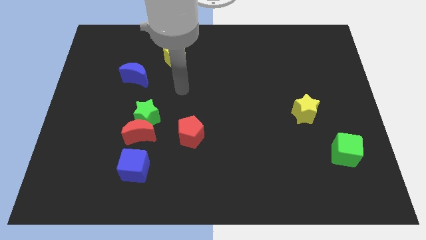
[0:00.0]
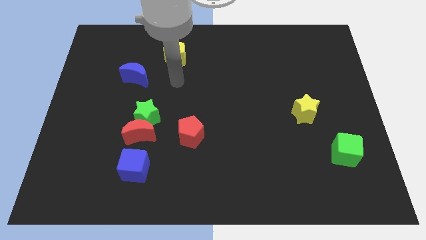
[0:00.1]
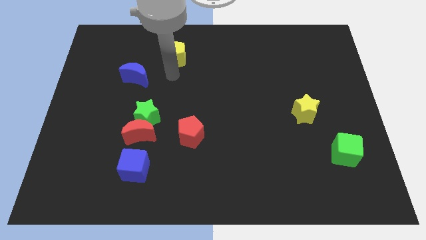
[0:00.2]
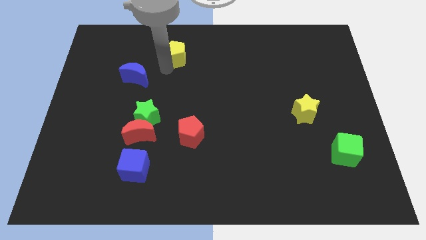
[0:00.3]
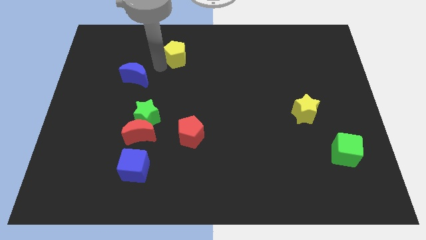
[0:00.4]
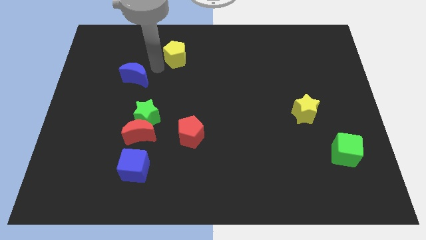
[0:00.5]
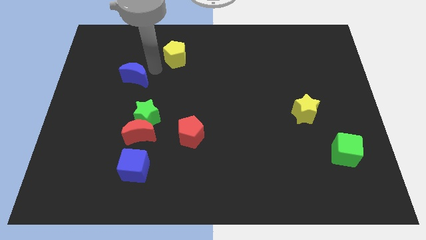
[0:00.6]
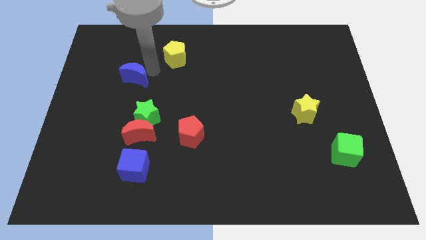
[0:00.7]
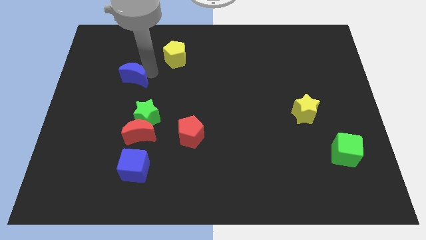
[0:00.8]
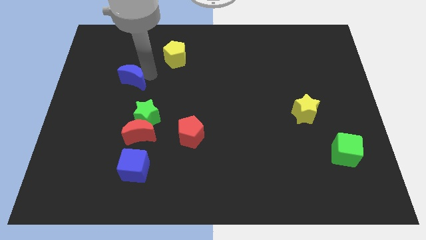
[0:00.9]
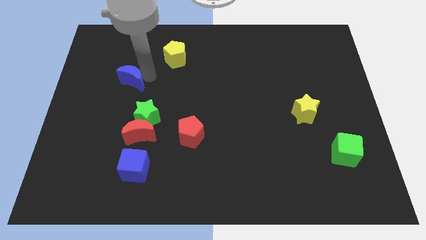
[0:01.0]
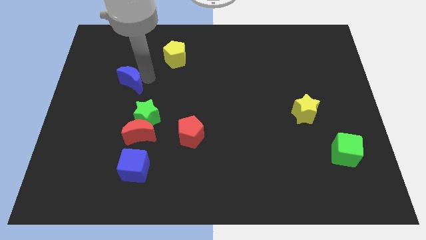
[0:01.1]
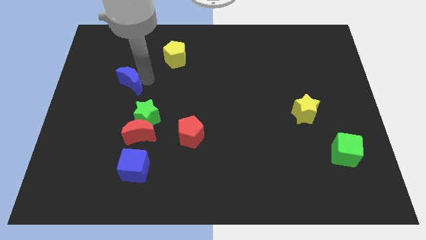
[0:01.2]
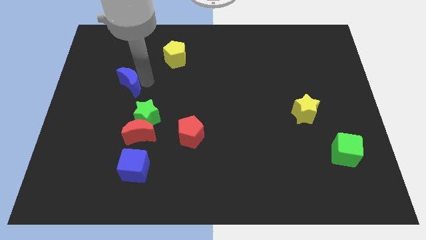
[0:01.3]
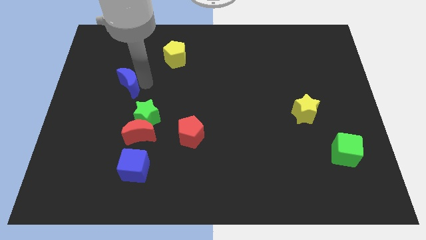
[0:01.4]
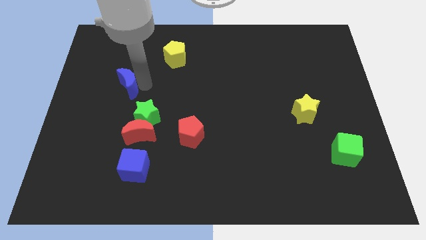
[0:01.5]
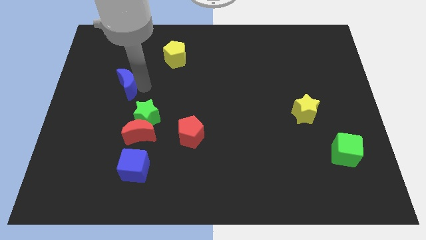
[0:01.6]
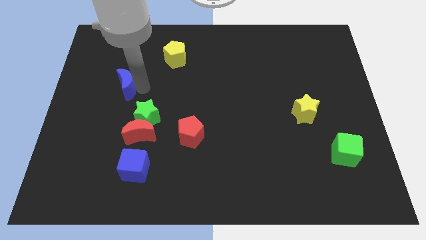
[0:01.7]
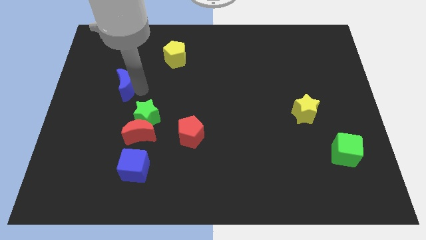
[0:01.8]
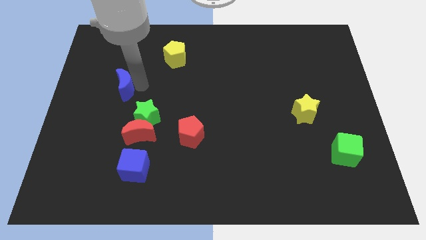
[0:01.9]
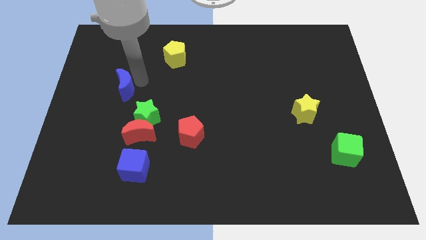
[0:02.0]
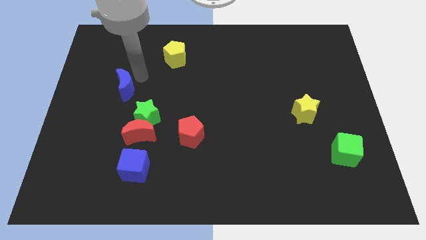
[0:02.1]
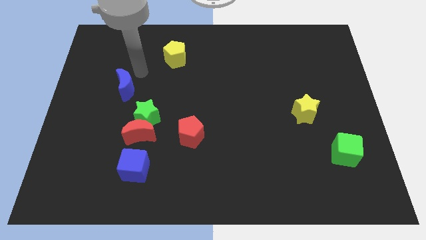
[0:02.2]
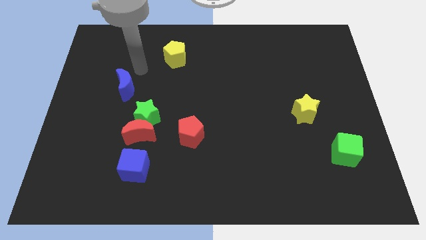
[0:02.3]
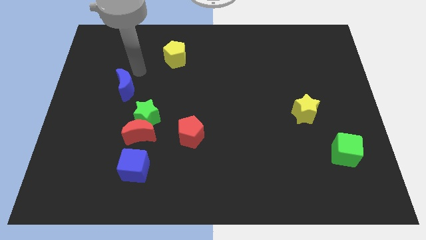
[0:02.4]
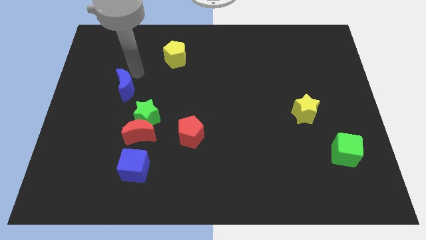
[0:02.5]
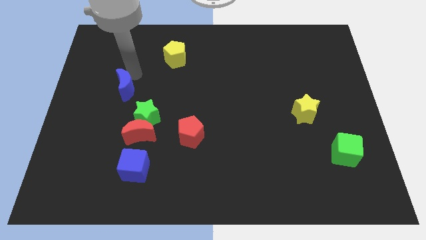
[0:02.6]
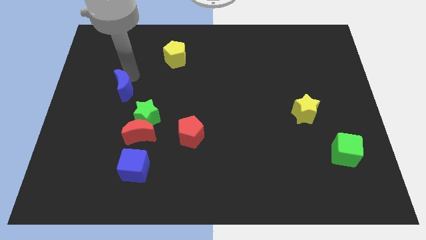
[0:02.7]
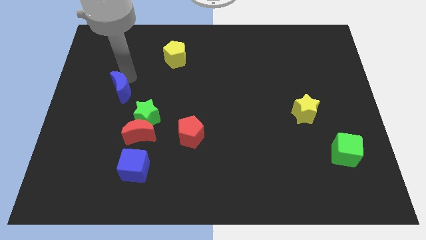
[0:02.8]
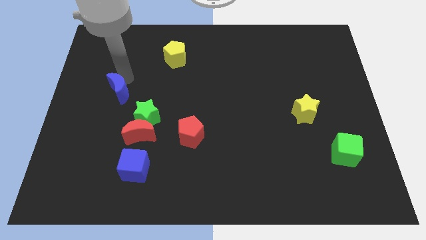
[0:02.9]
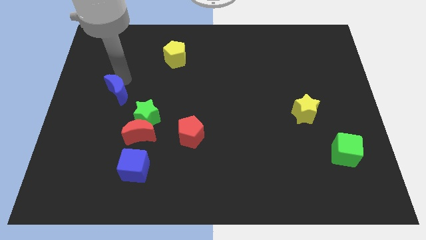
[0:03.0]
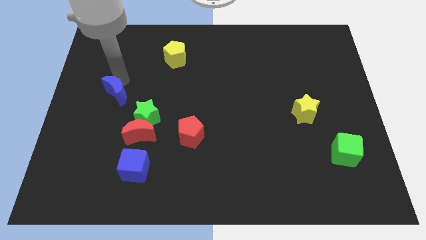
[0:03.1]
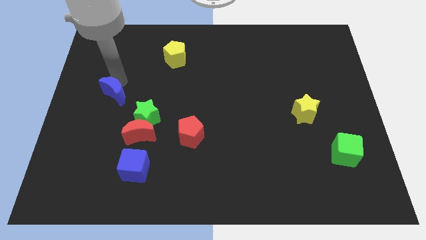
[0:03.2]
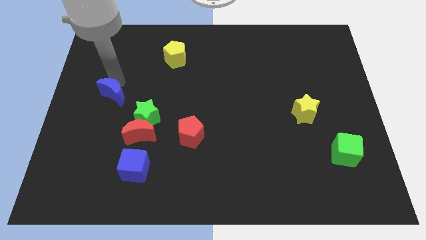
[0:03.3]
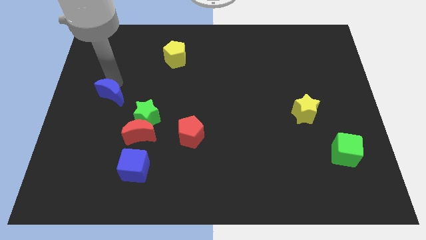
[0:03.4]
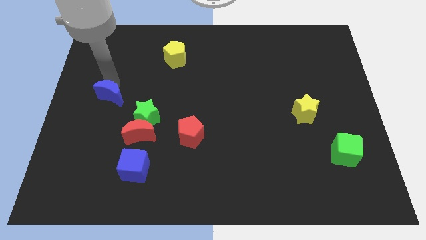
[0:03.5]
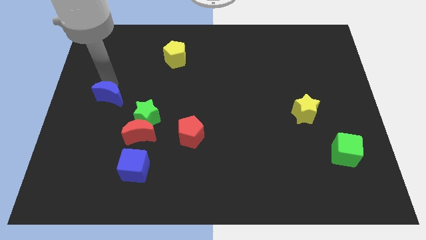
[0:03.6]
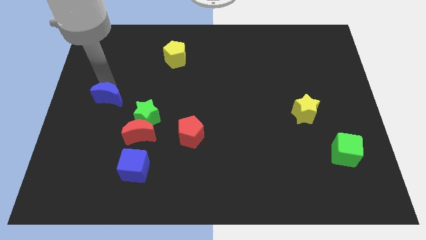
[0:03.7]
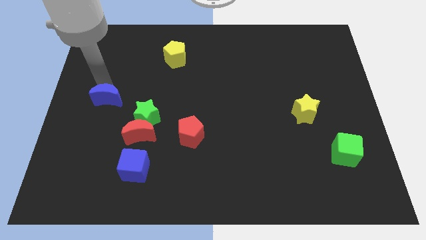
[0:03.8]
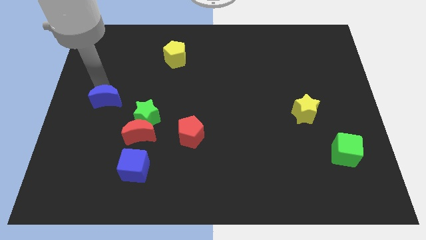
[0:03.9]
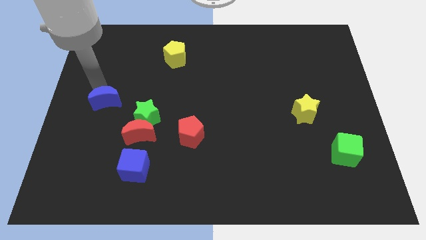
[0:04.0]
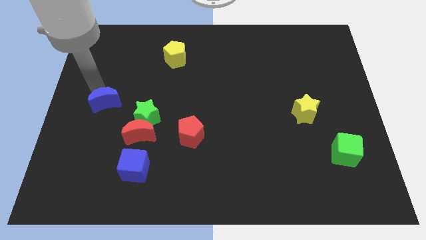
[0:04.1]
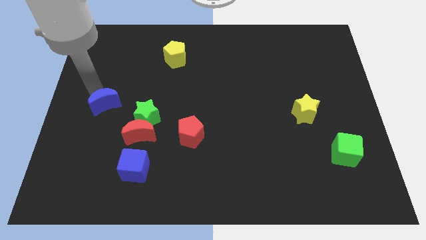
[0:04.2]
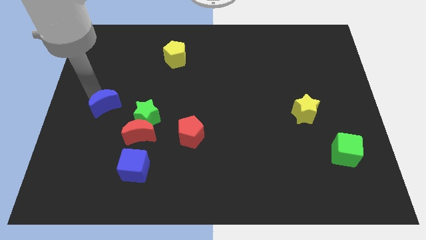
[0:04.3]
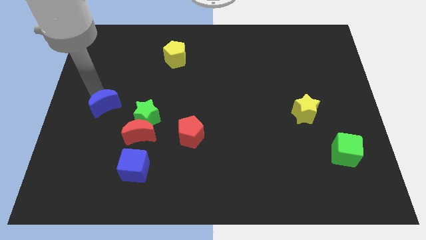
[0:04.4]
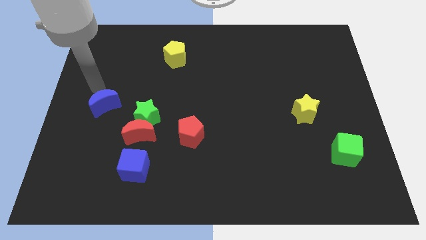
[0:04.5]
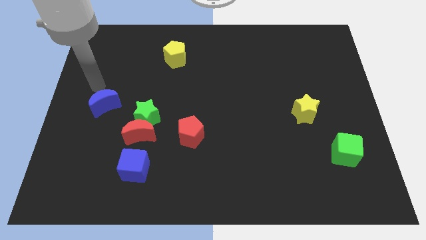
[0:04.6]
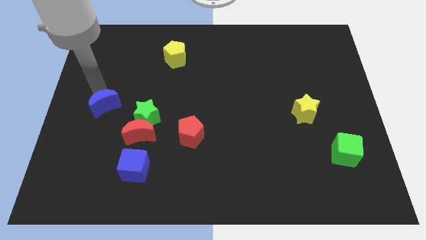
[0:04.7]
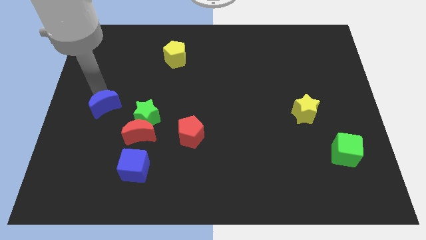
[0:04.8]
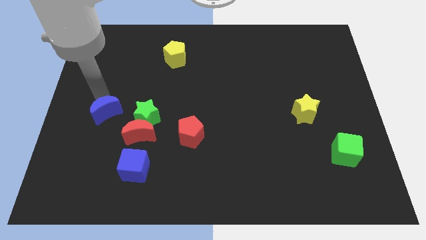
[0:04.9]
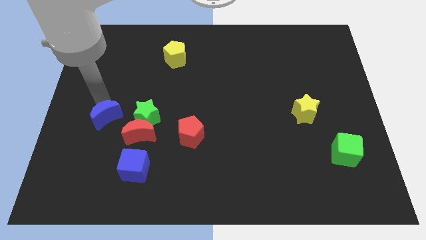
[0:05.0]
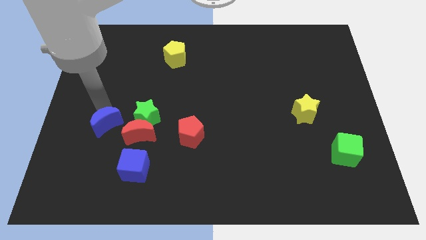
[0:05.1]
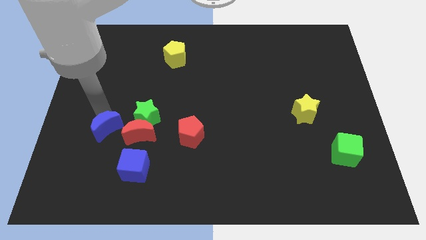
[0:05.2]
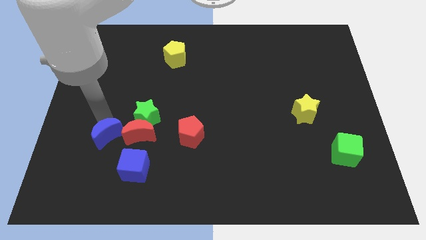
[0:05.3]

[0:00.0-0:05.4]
move the blue moon diagonally down and to the left of the red moon

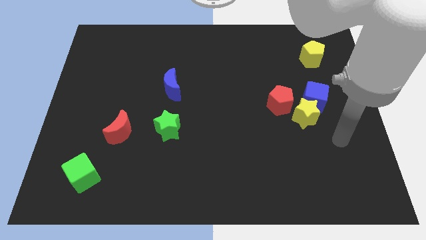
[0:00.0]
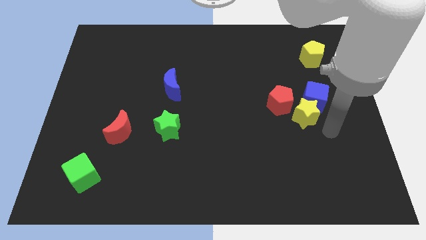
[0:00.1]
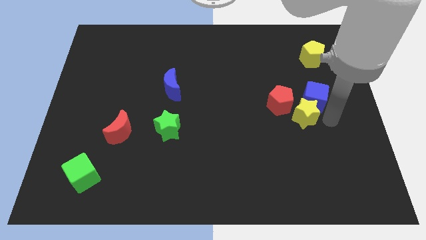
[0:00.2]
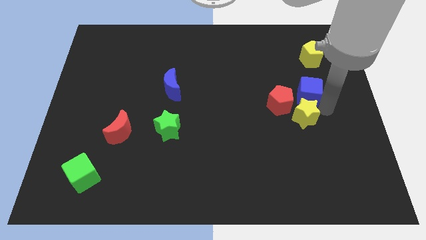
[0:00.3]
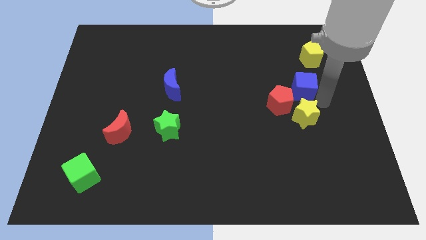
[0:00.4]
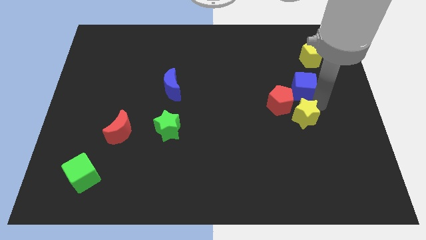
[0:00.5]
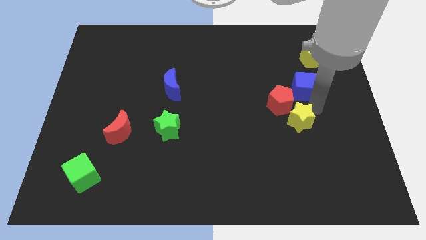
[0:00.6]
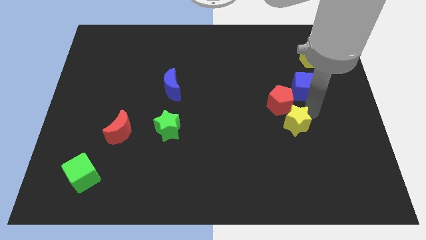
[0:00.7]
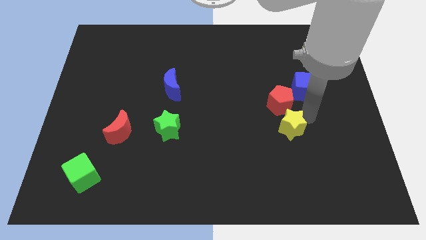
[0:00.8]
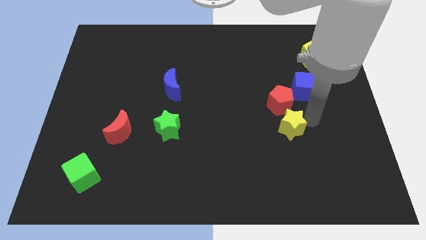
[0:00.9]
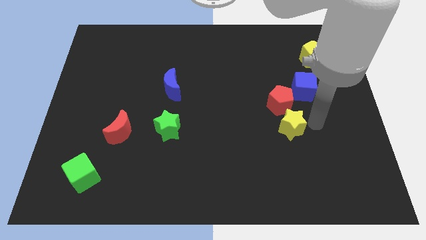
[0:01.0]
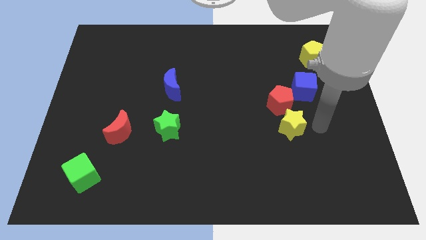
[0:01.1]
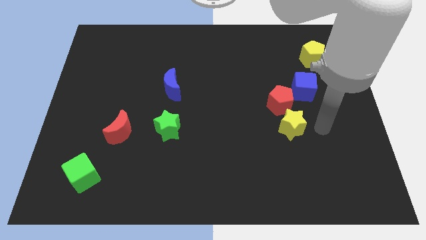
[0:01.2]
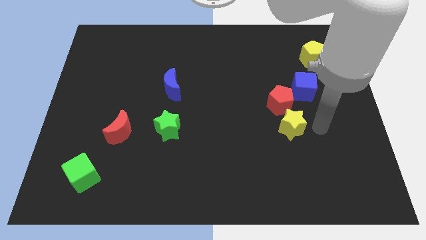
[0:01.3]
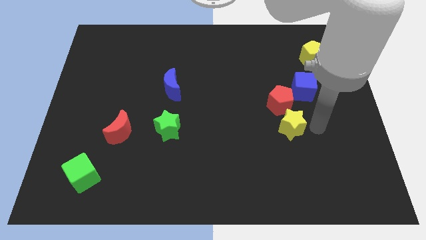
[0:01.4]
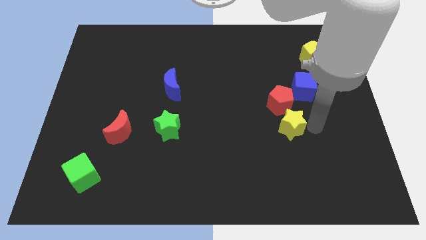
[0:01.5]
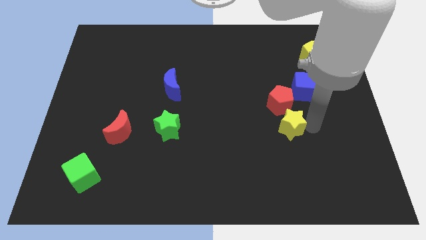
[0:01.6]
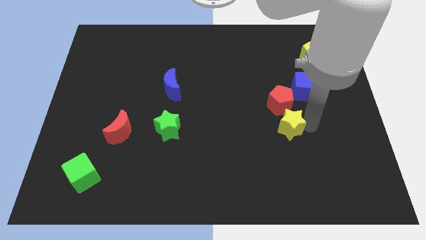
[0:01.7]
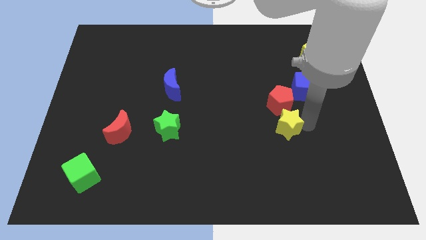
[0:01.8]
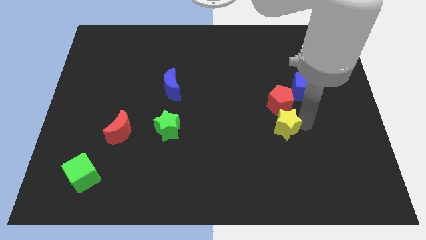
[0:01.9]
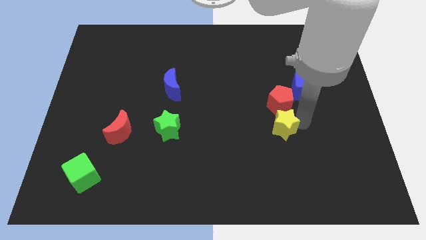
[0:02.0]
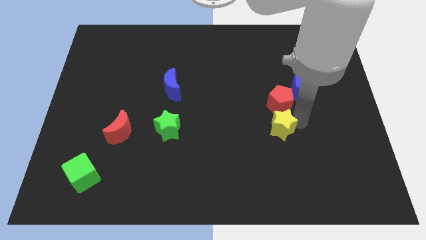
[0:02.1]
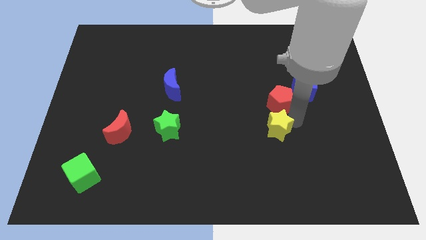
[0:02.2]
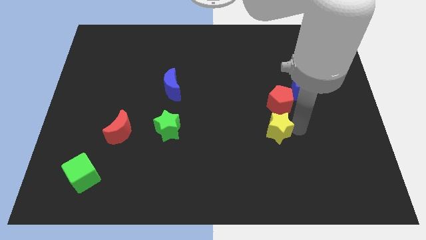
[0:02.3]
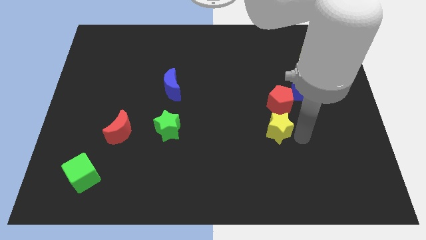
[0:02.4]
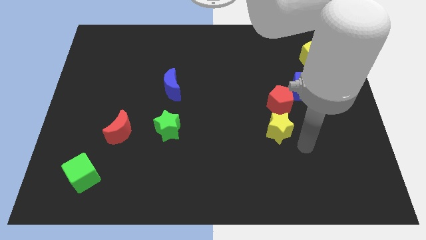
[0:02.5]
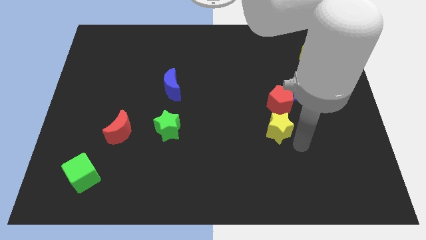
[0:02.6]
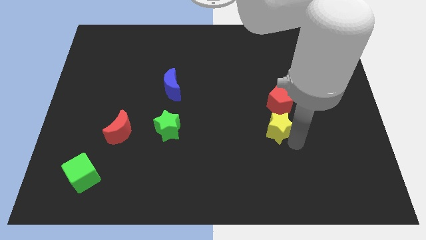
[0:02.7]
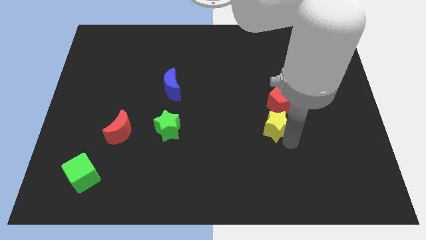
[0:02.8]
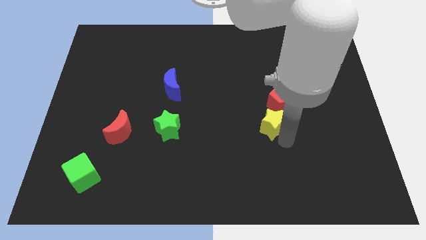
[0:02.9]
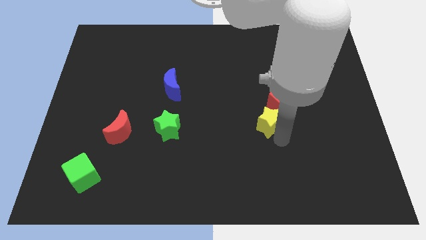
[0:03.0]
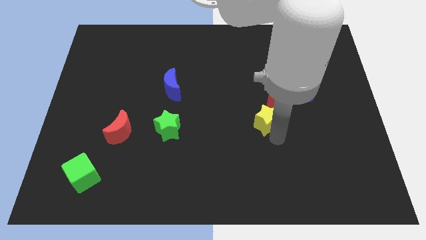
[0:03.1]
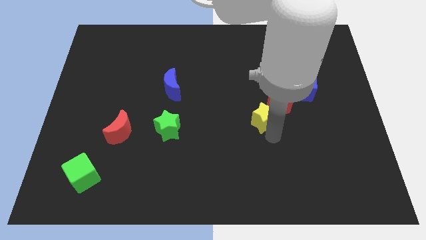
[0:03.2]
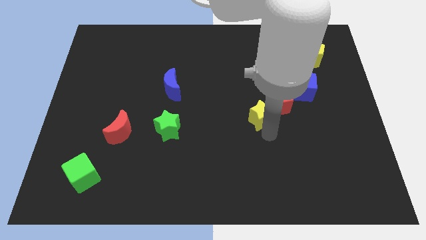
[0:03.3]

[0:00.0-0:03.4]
slide the yellow star to the left side of the red pentagon
